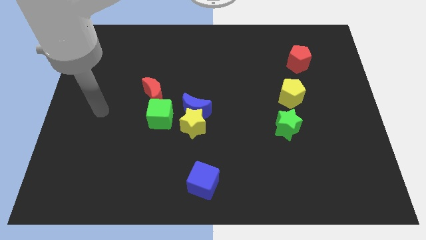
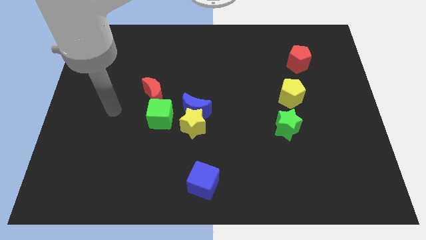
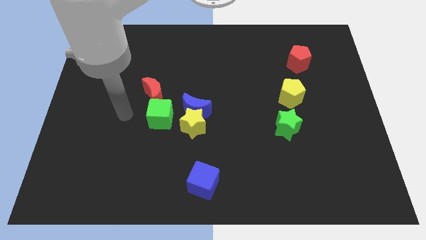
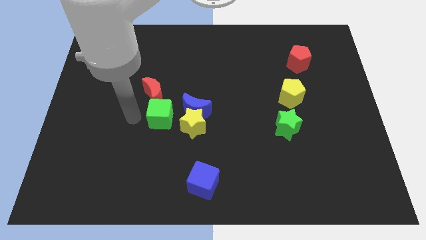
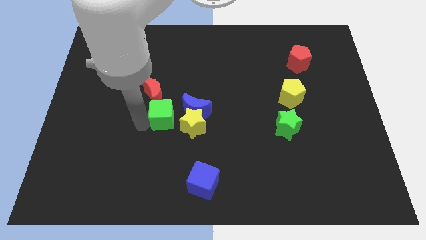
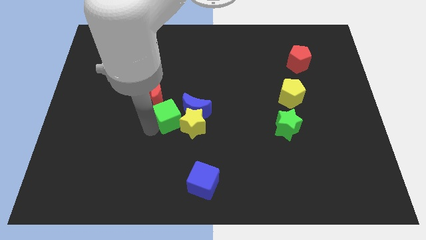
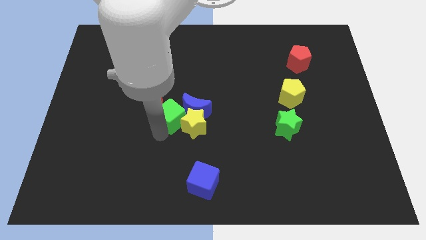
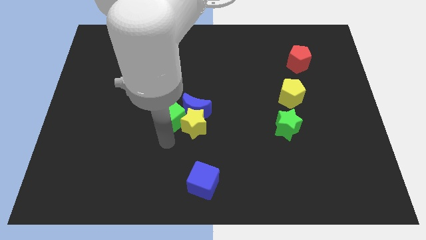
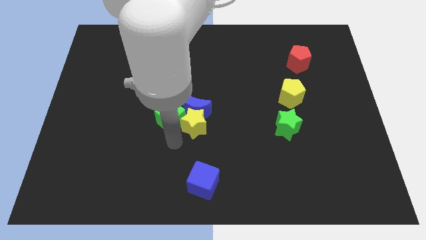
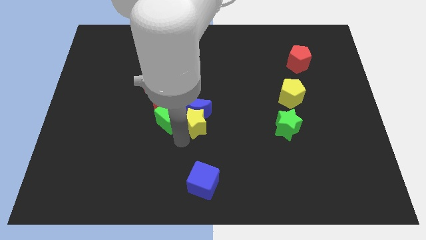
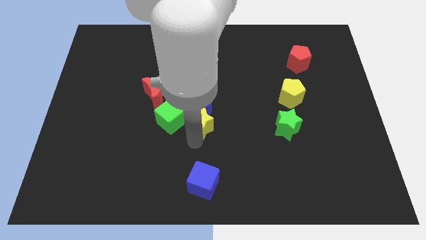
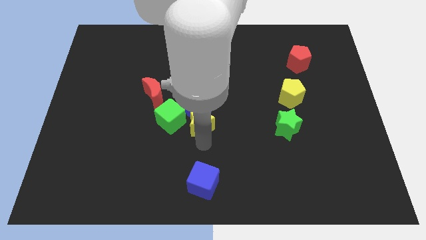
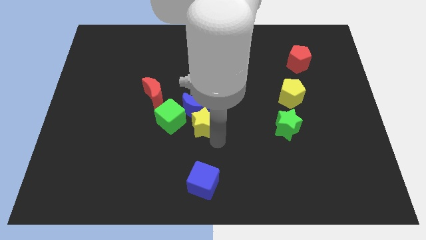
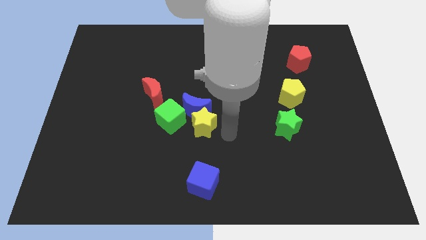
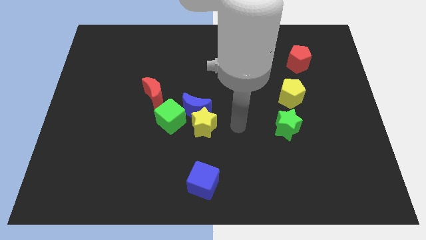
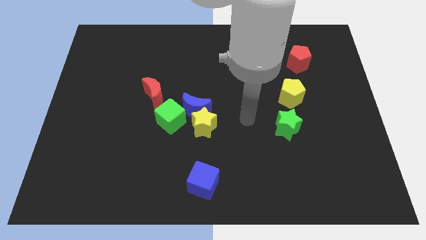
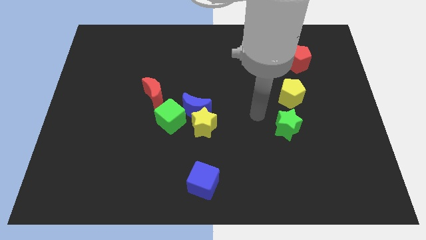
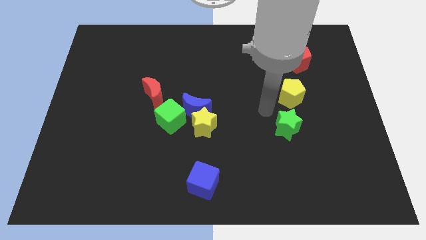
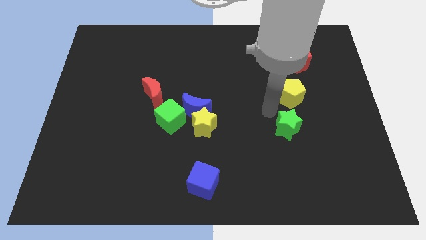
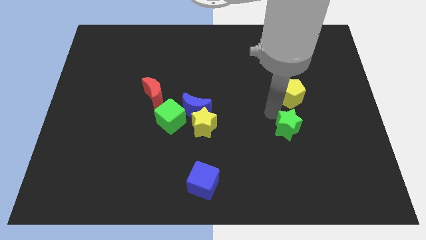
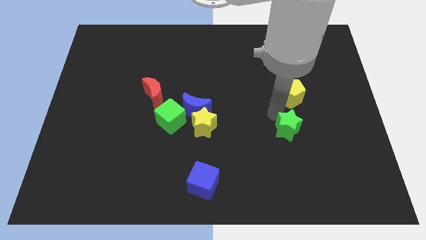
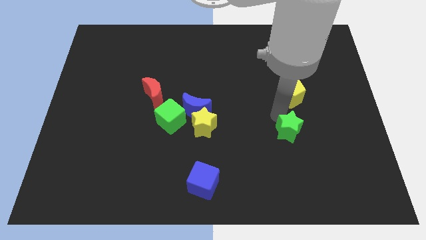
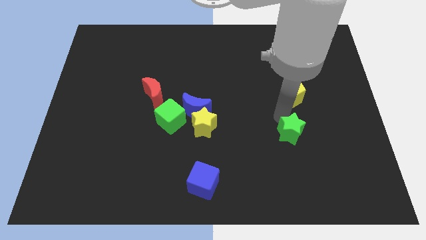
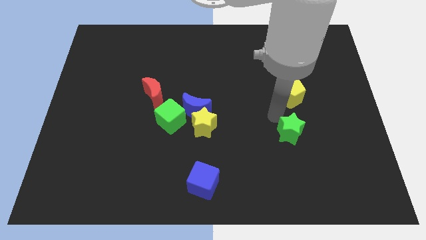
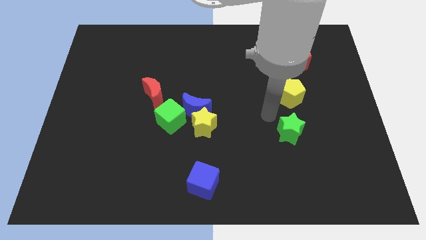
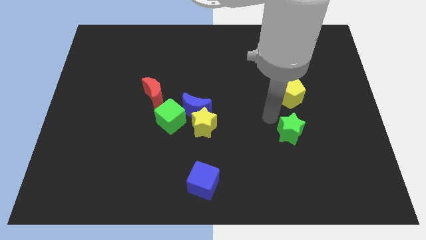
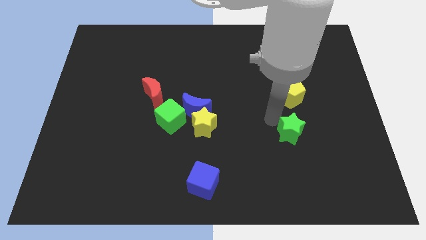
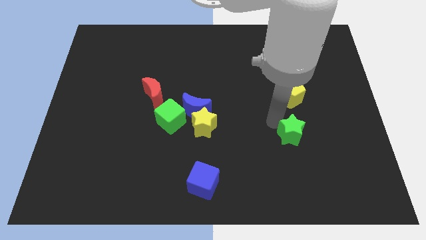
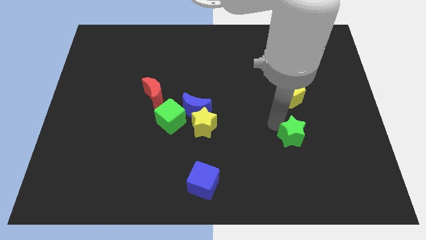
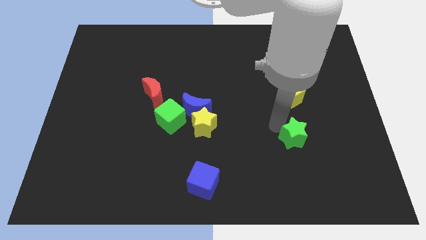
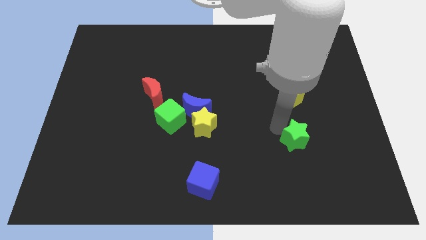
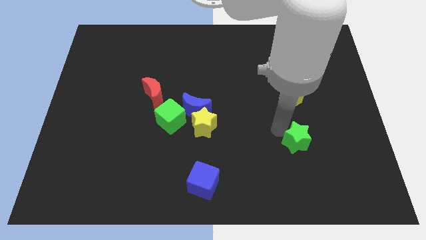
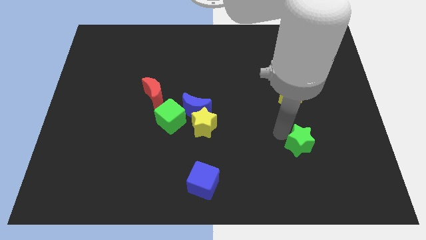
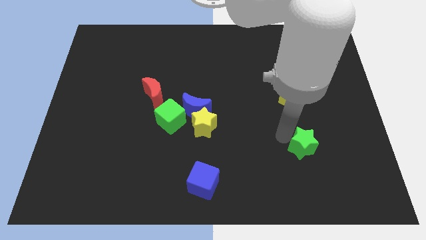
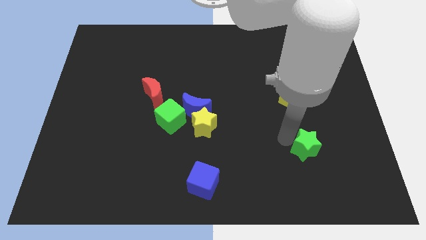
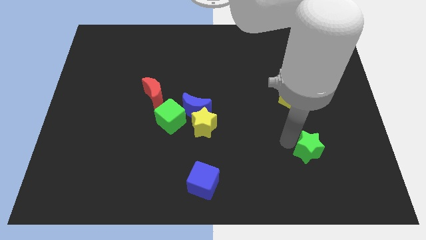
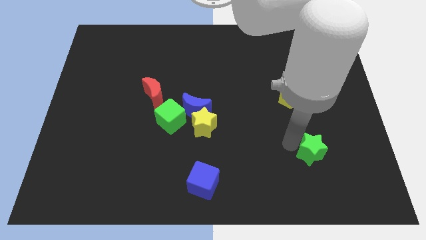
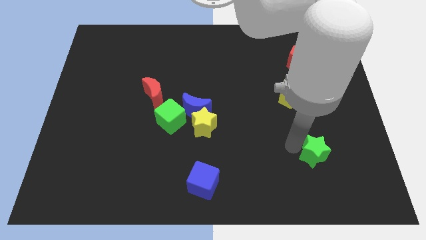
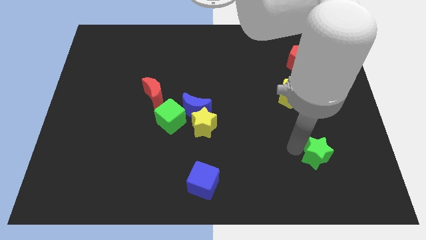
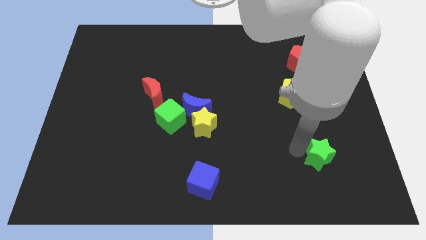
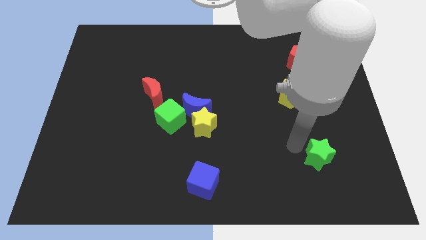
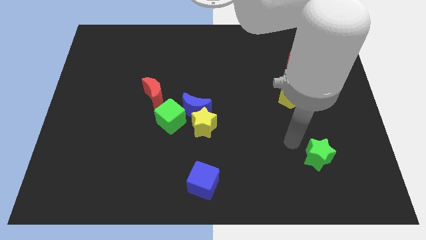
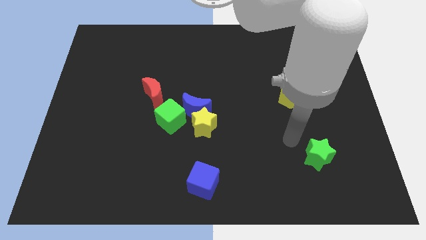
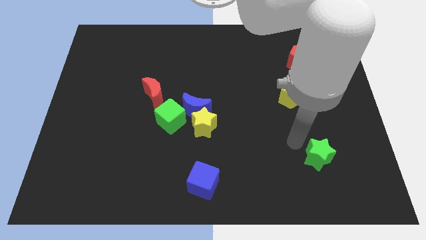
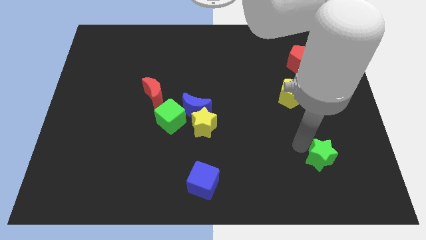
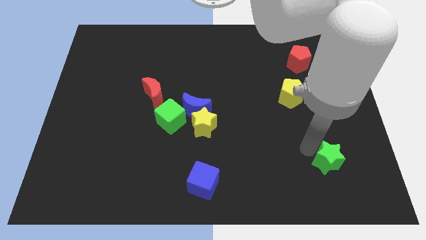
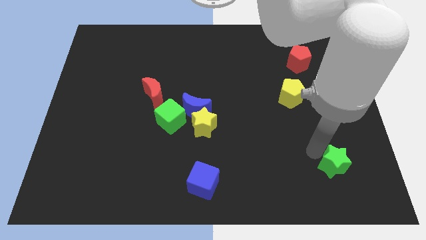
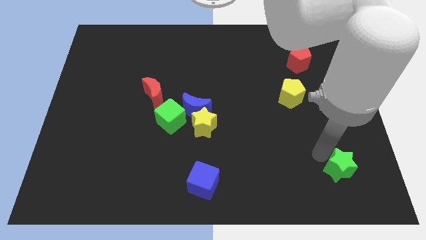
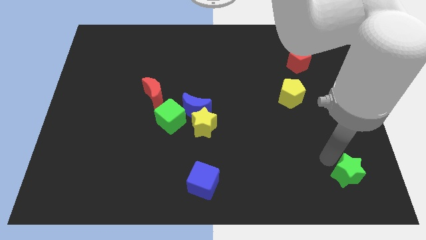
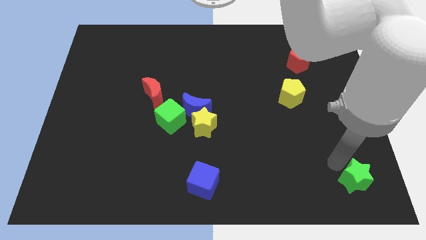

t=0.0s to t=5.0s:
move the green star to the bottom right corner

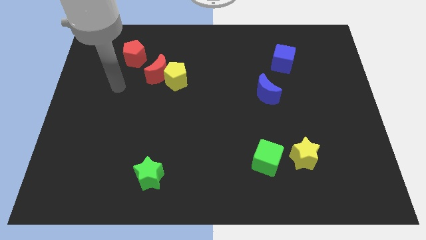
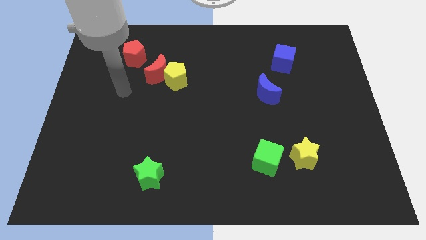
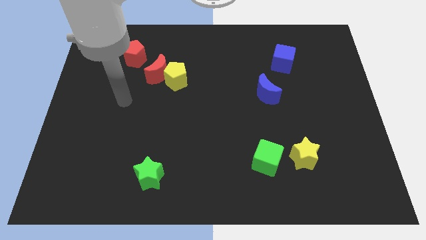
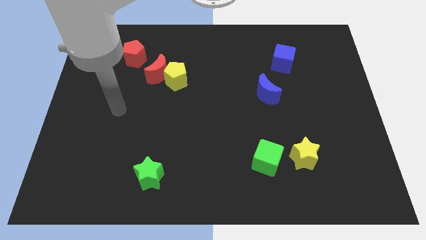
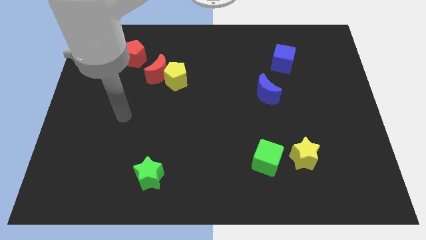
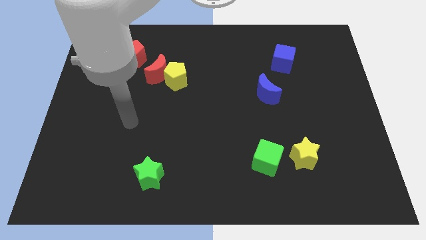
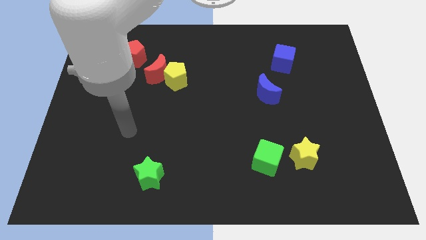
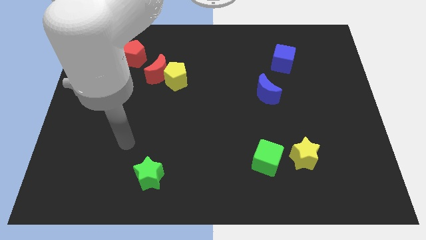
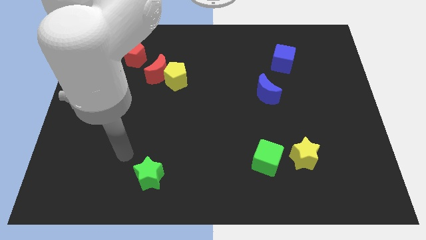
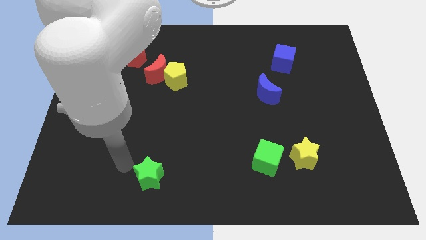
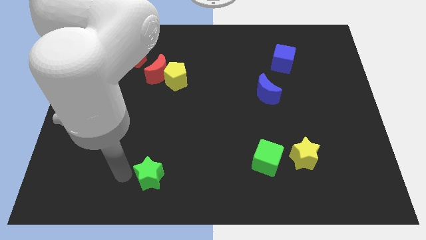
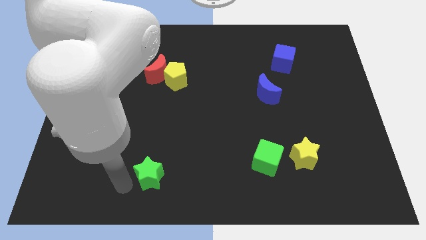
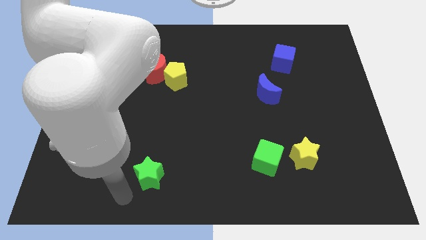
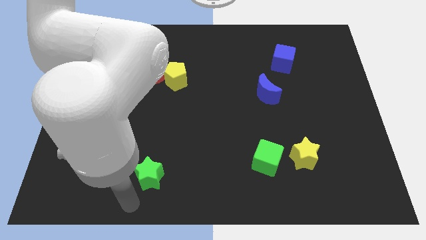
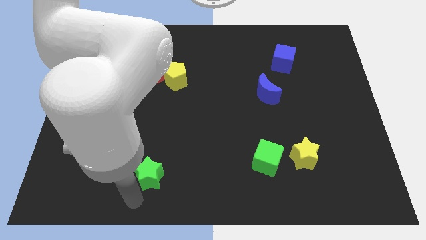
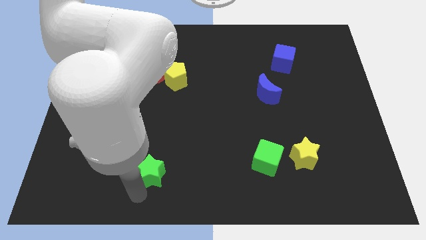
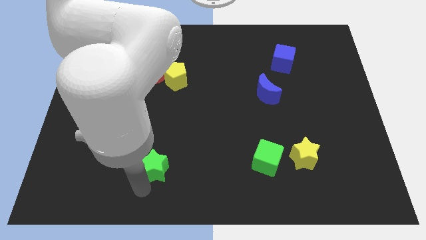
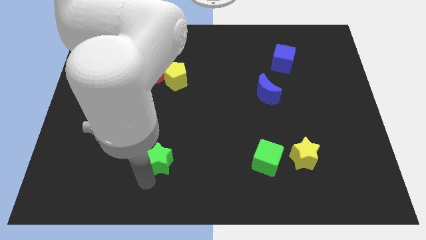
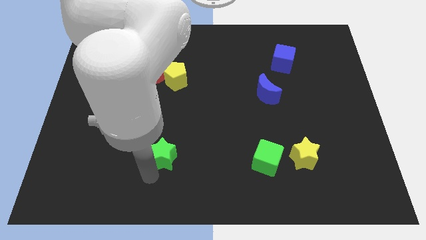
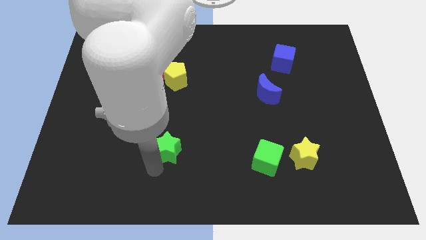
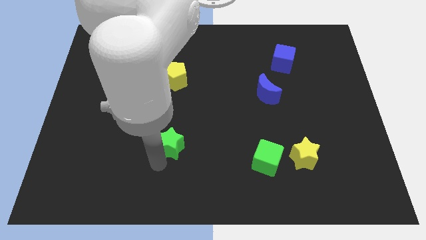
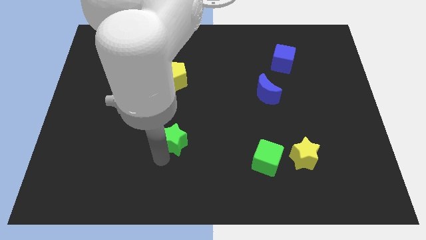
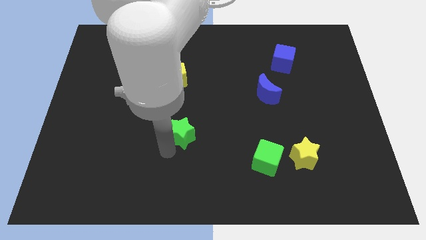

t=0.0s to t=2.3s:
slide the green star to the center
